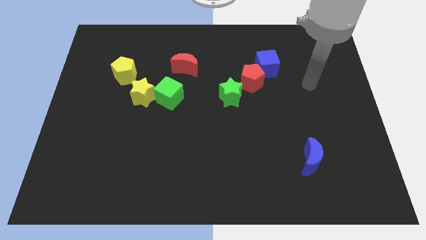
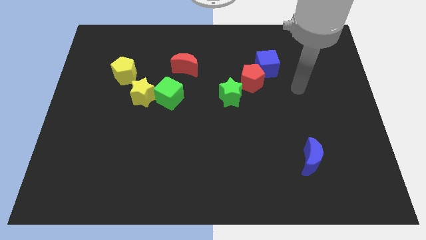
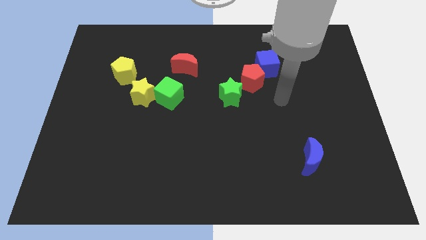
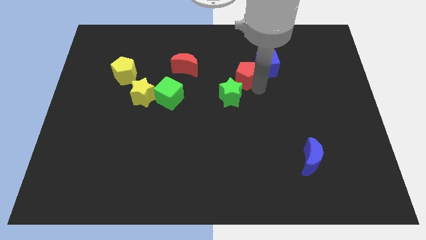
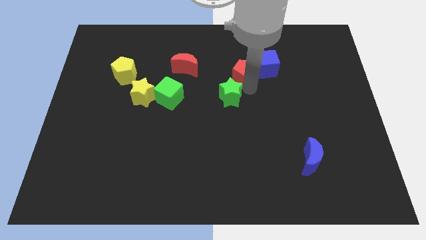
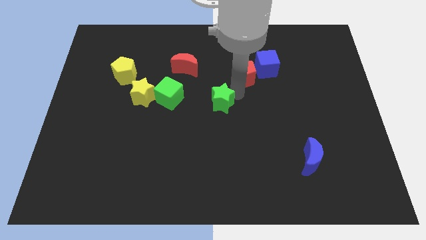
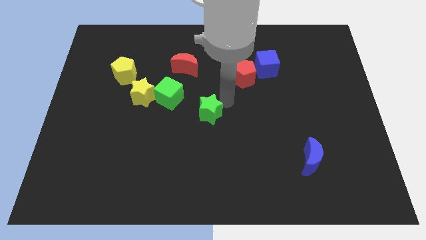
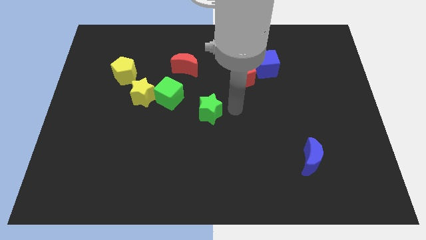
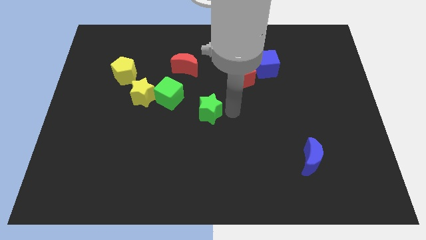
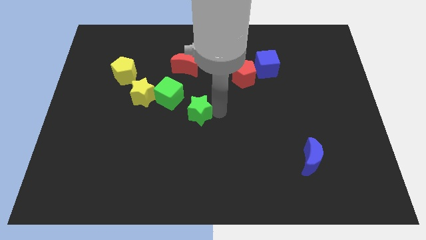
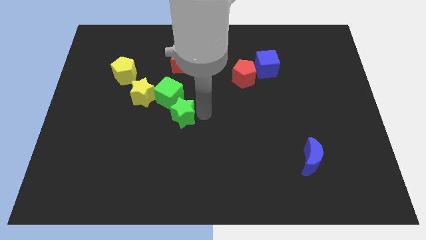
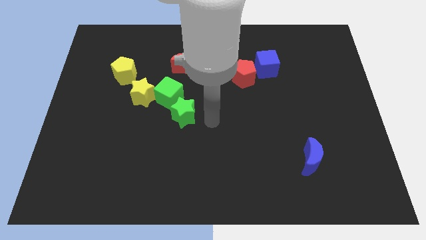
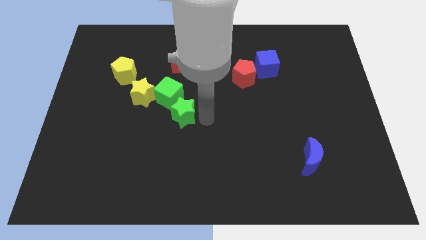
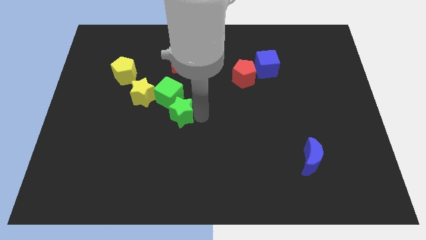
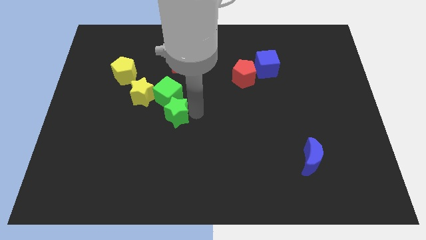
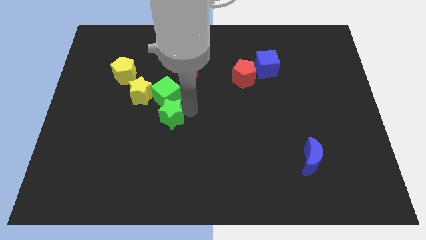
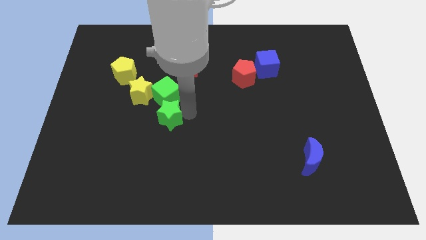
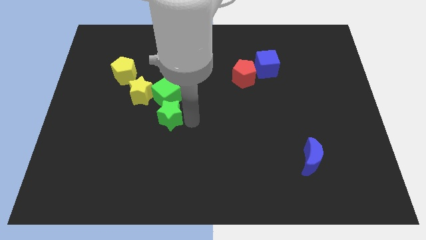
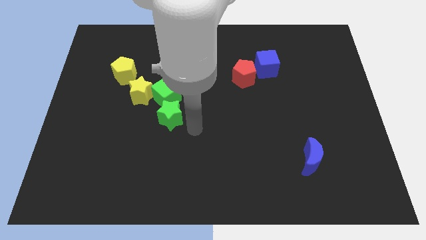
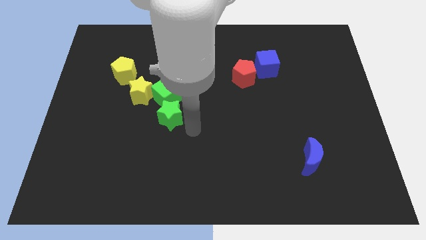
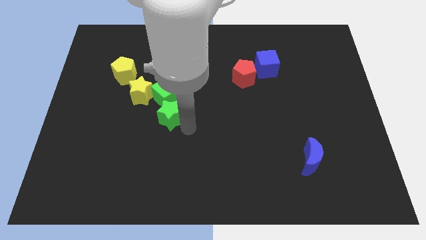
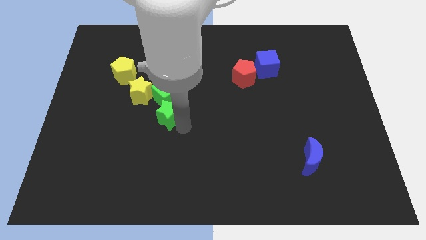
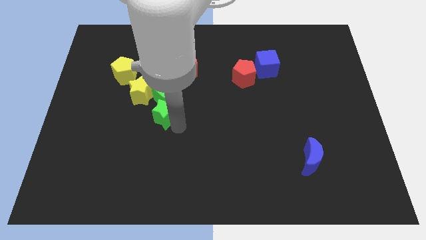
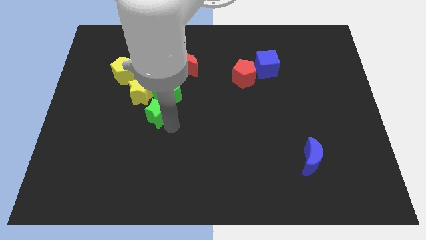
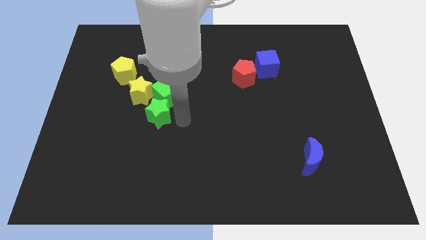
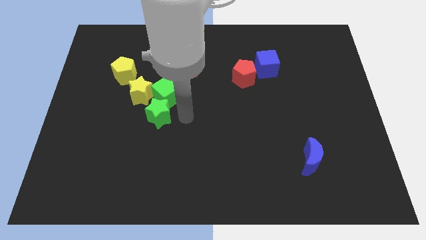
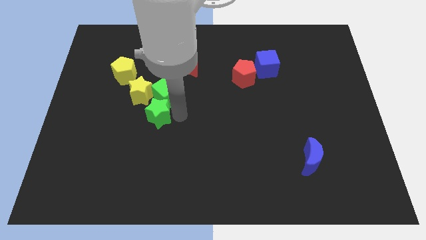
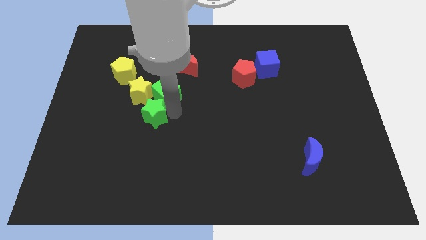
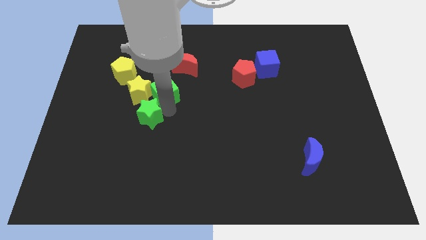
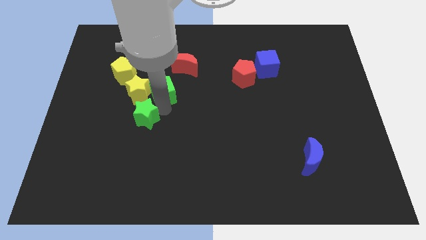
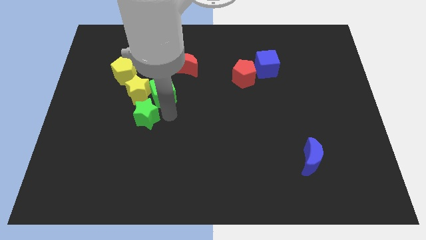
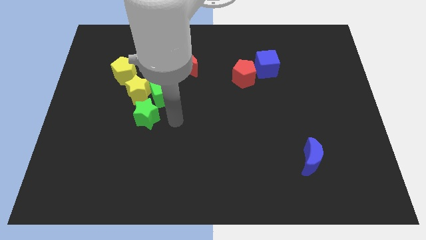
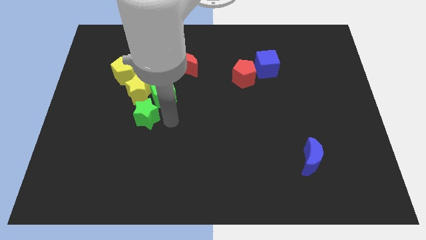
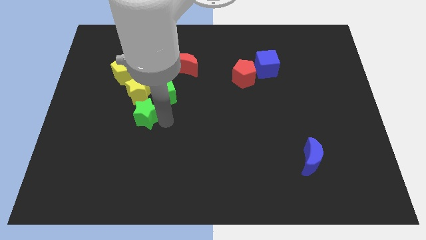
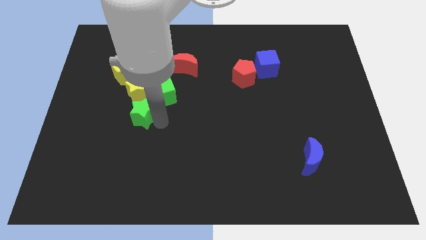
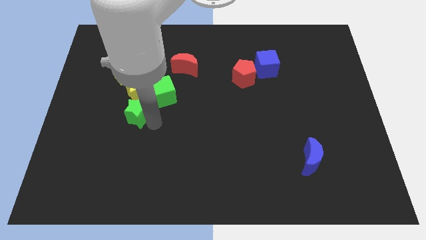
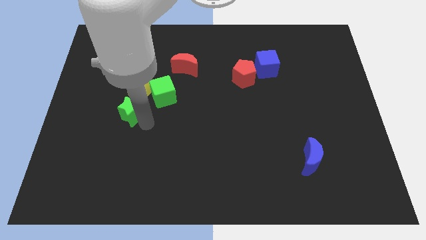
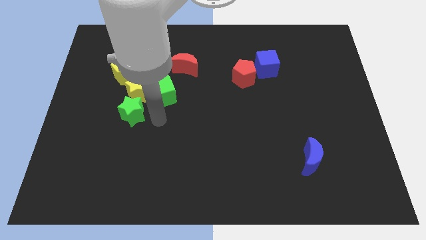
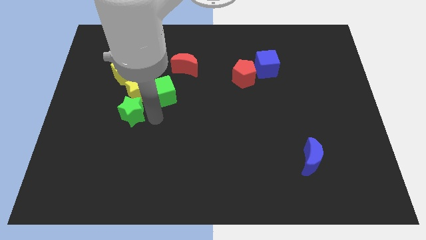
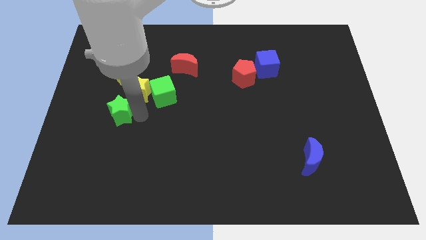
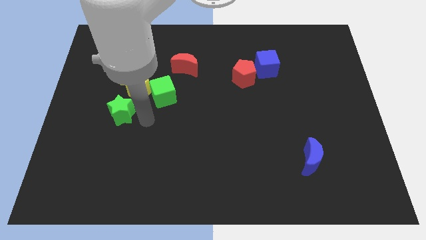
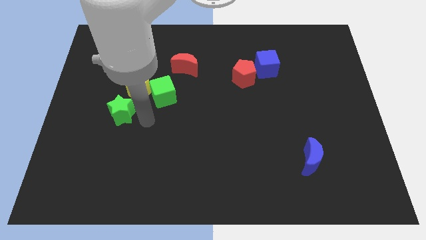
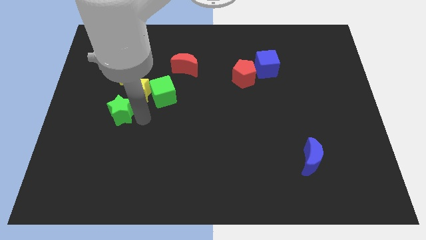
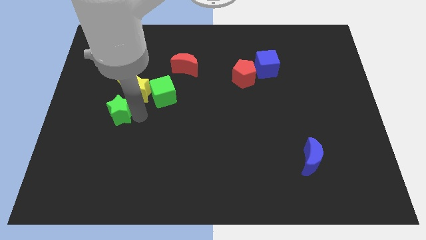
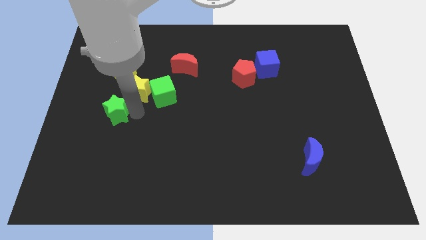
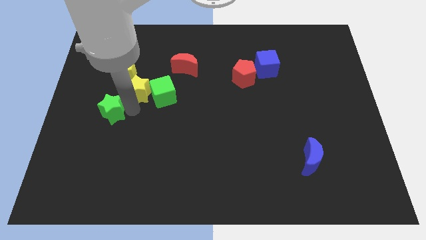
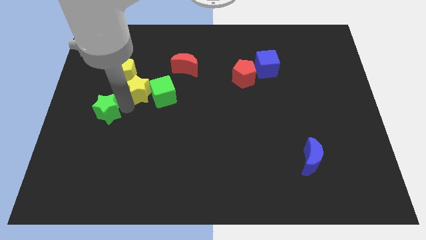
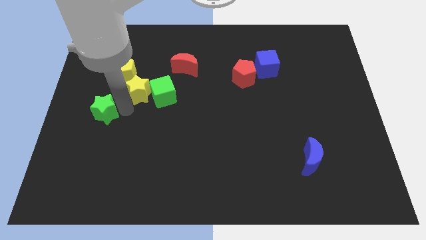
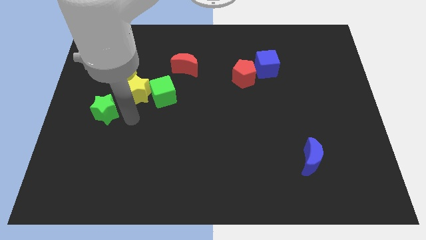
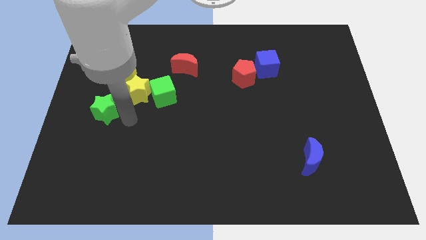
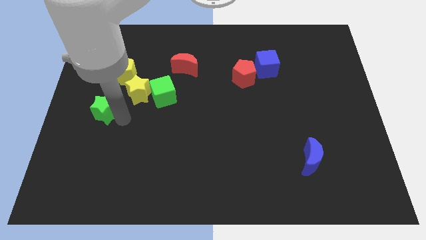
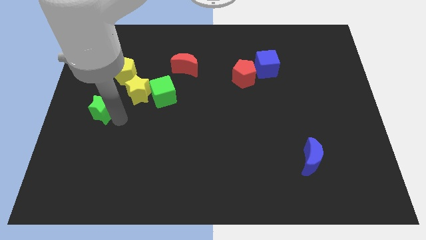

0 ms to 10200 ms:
put the green star to the center left
